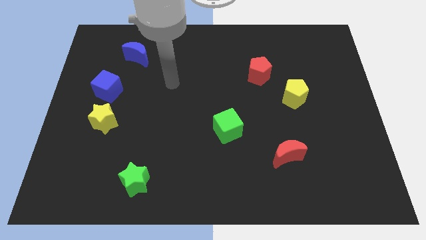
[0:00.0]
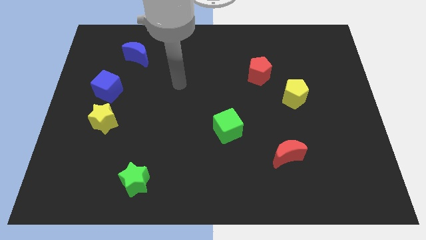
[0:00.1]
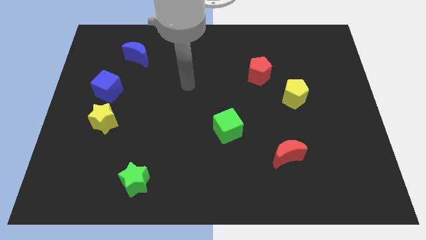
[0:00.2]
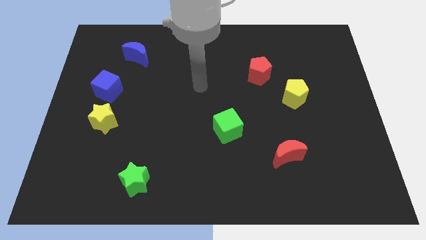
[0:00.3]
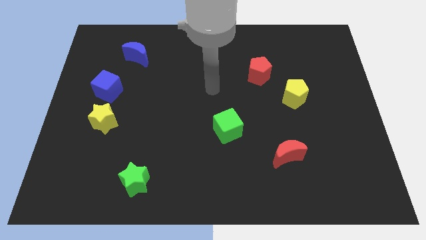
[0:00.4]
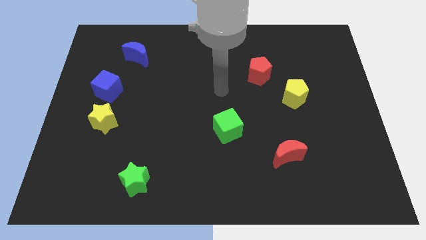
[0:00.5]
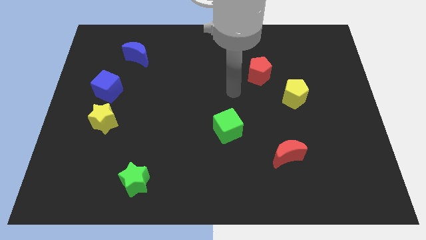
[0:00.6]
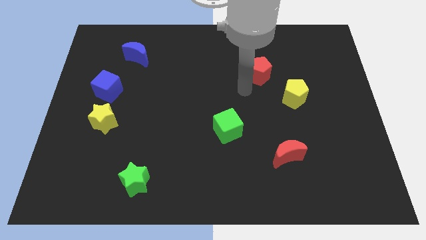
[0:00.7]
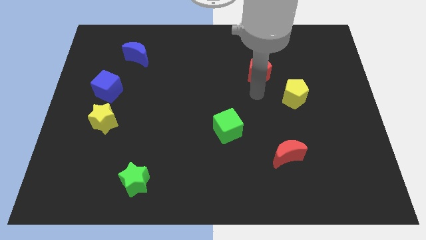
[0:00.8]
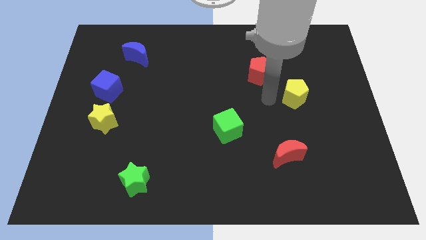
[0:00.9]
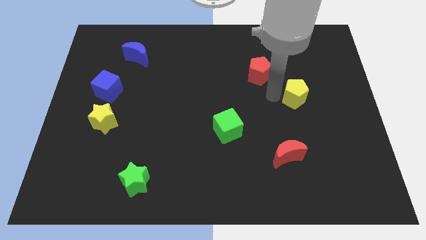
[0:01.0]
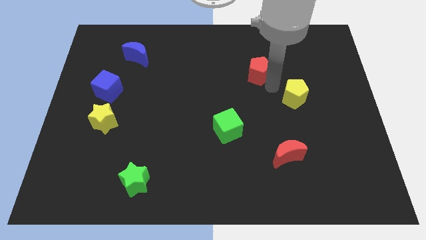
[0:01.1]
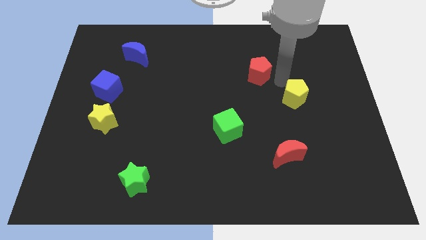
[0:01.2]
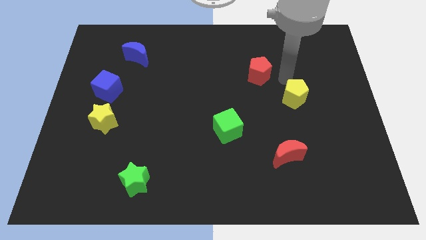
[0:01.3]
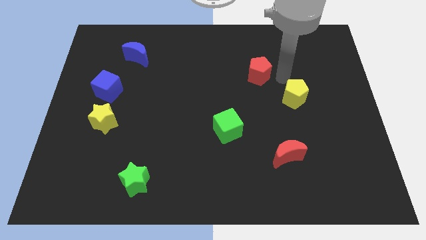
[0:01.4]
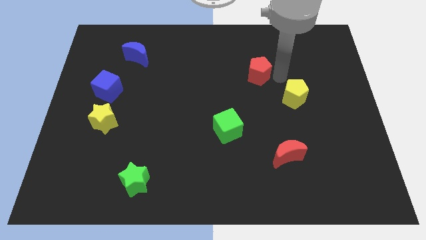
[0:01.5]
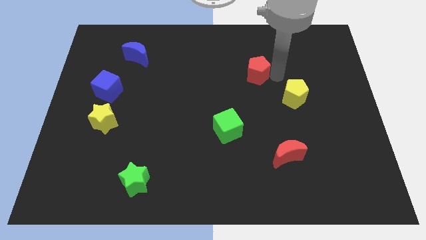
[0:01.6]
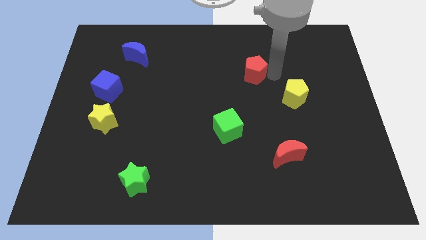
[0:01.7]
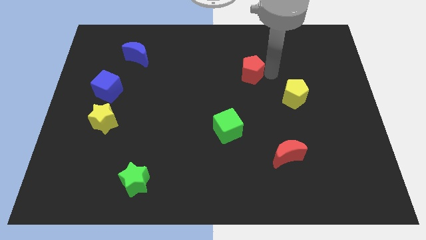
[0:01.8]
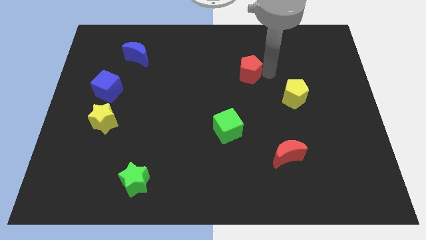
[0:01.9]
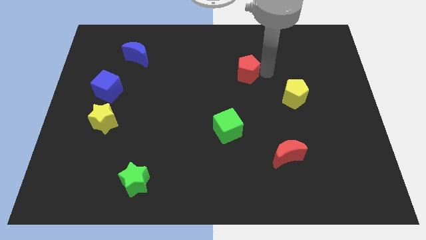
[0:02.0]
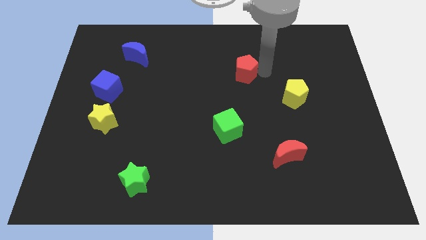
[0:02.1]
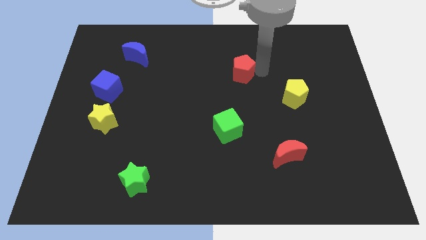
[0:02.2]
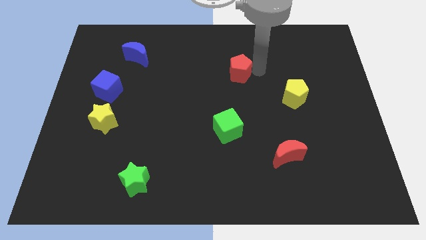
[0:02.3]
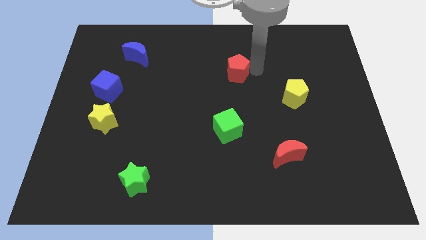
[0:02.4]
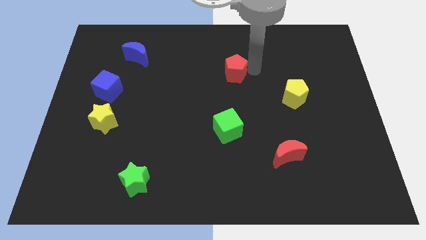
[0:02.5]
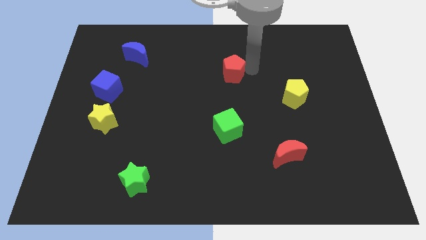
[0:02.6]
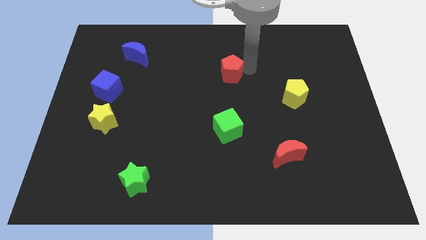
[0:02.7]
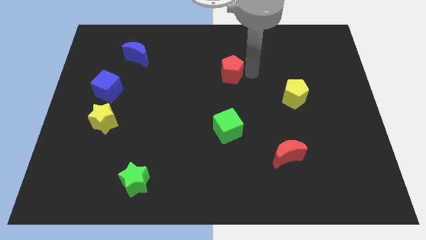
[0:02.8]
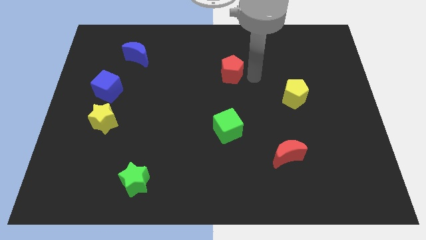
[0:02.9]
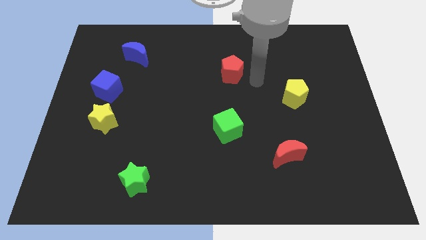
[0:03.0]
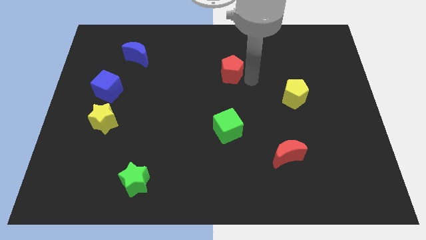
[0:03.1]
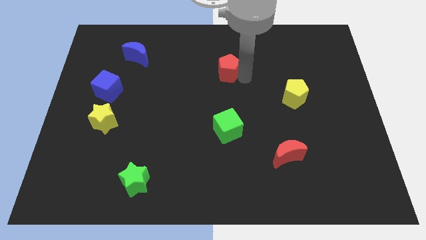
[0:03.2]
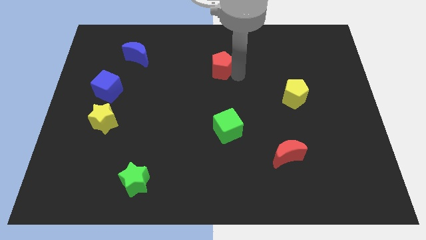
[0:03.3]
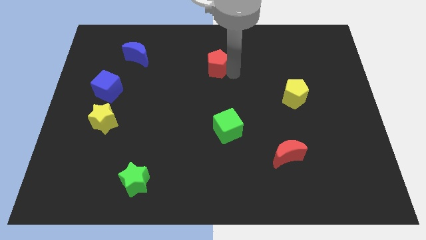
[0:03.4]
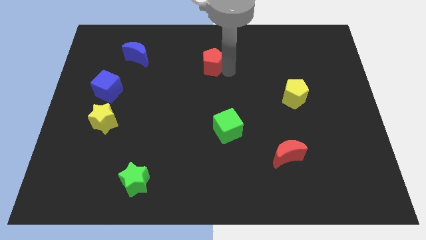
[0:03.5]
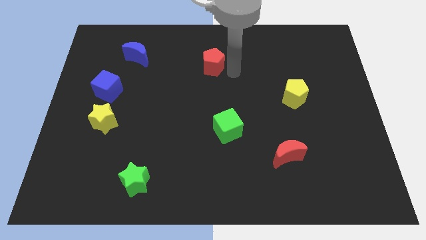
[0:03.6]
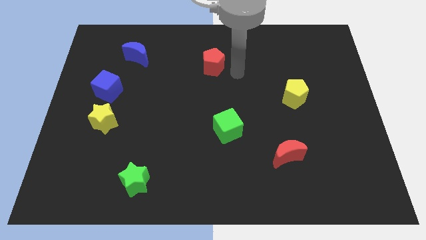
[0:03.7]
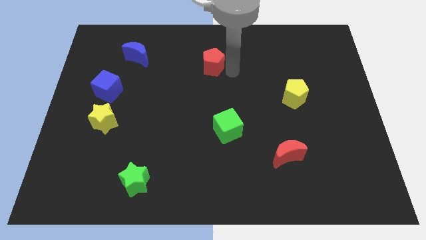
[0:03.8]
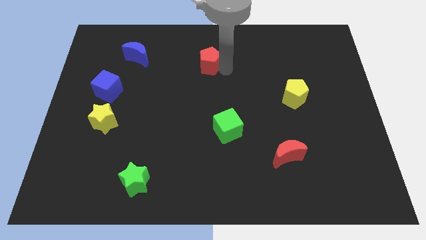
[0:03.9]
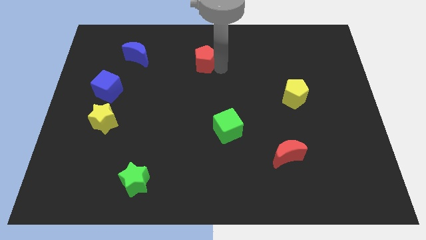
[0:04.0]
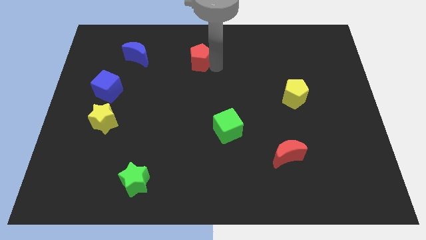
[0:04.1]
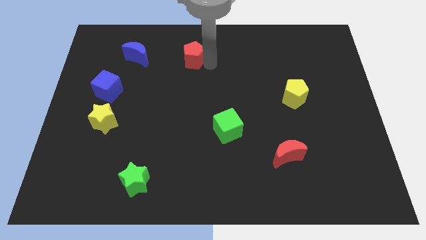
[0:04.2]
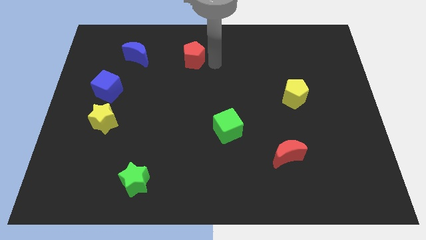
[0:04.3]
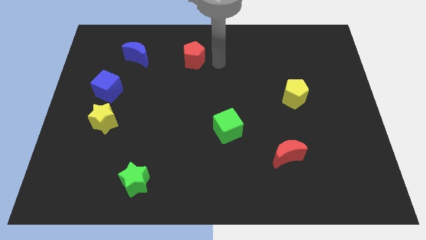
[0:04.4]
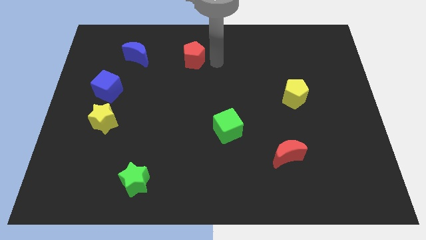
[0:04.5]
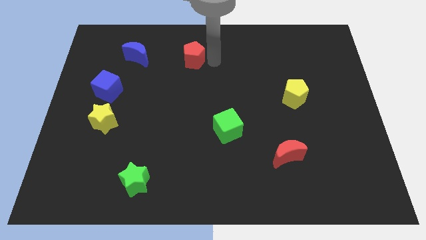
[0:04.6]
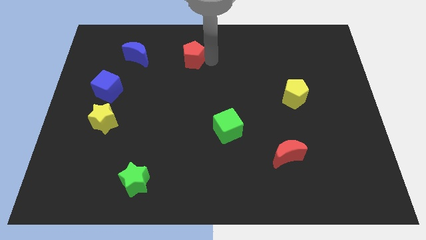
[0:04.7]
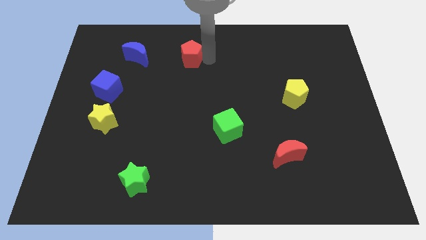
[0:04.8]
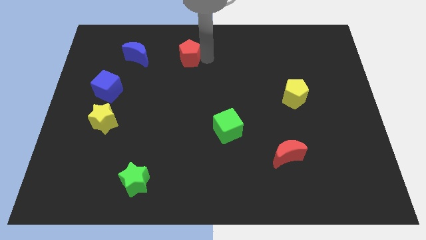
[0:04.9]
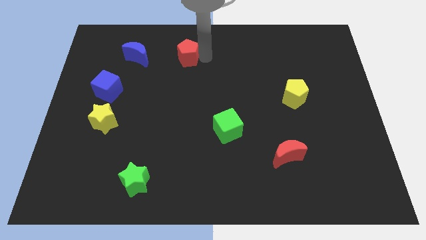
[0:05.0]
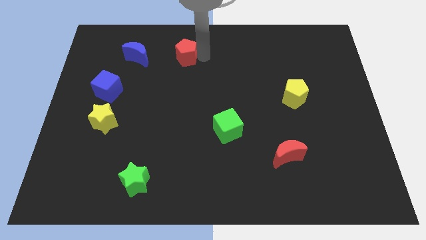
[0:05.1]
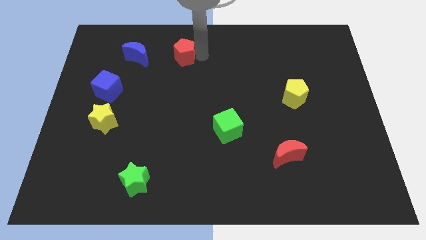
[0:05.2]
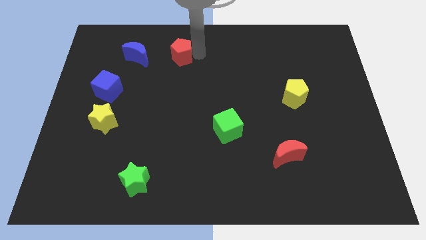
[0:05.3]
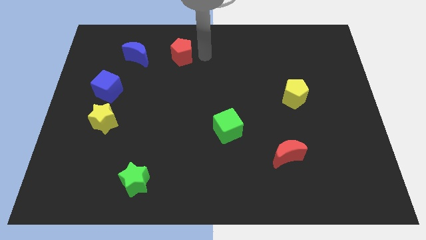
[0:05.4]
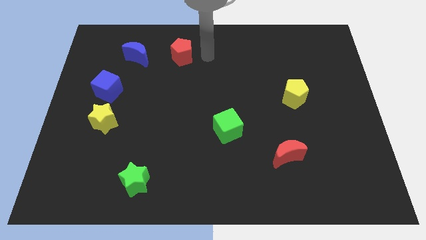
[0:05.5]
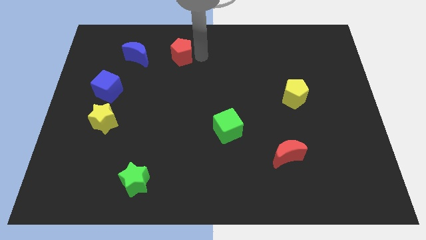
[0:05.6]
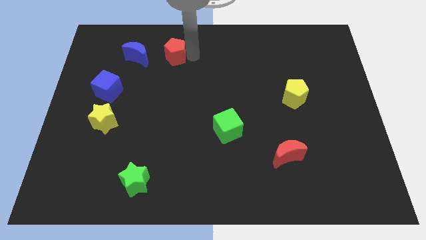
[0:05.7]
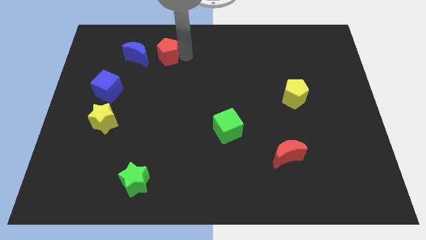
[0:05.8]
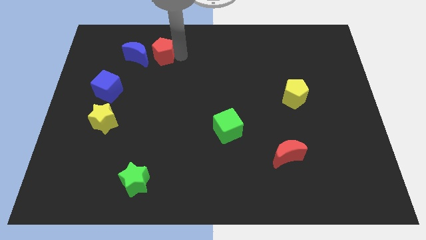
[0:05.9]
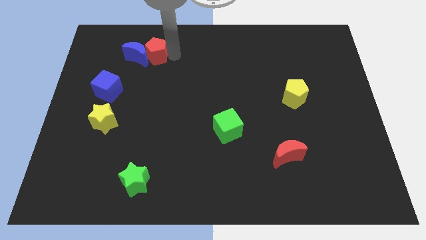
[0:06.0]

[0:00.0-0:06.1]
slide the red pentagon next to the blue moon
